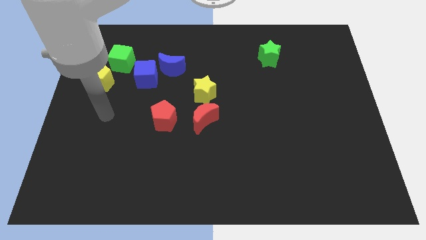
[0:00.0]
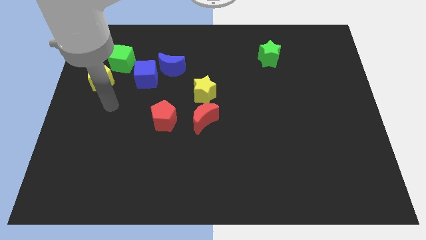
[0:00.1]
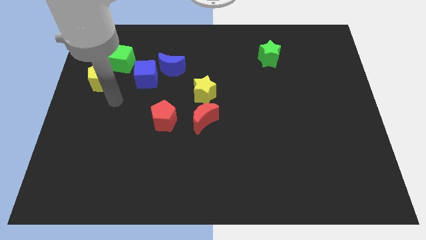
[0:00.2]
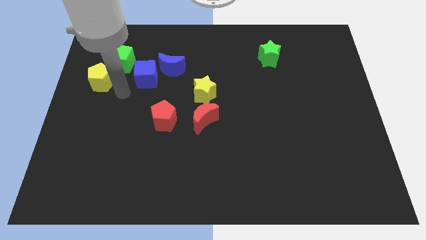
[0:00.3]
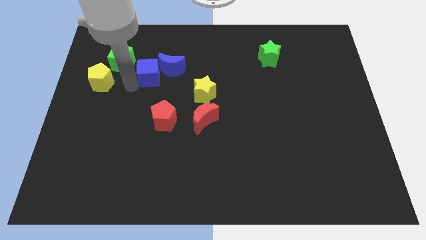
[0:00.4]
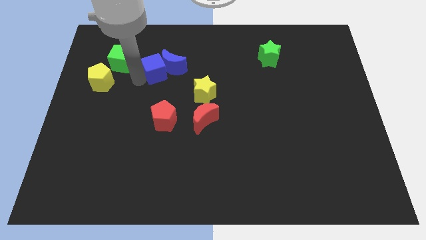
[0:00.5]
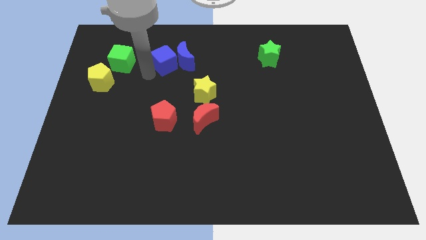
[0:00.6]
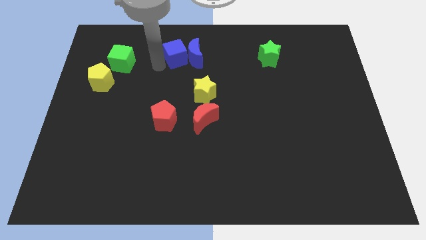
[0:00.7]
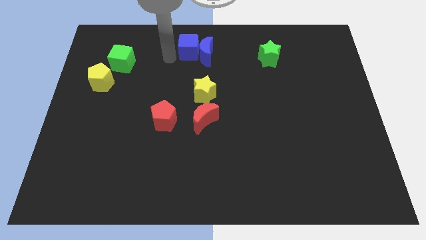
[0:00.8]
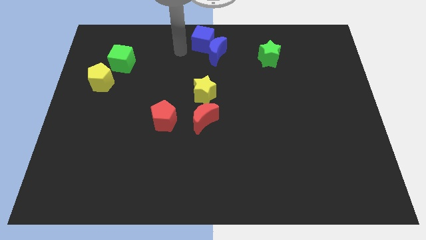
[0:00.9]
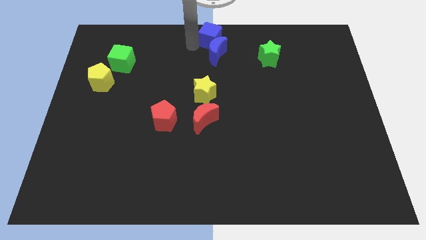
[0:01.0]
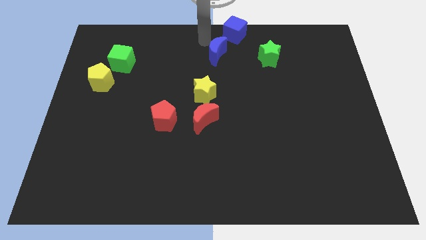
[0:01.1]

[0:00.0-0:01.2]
separate the blue moon from the blue cube

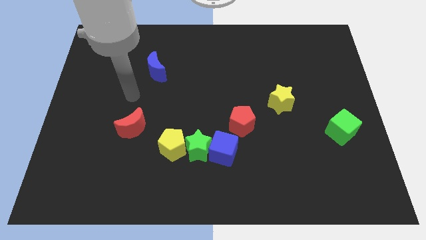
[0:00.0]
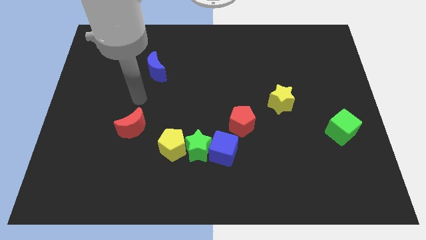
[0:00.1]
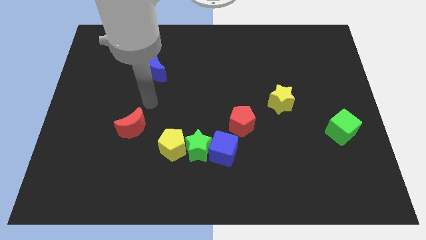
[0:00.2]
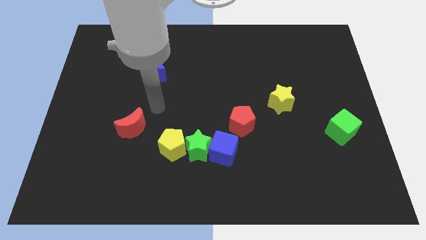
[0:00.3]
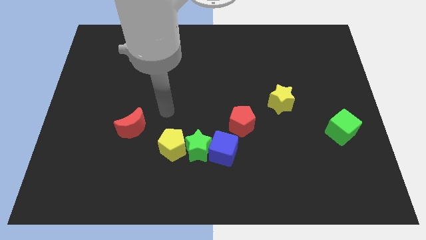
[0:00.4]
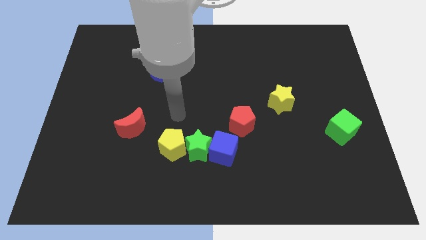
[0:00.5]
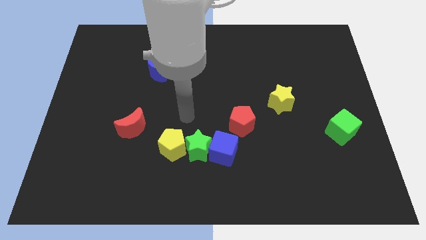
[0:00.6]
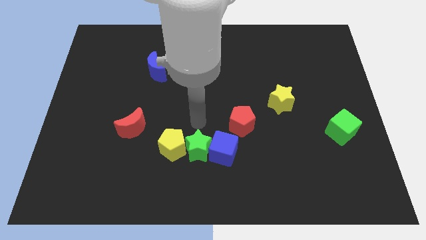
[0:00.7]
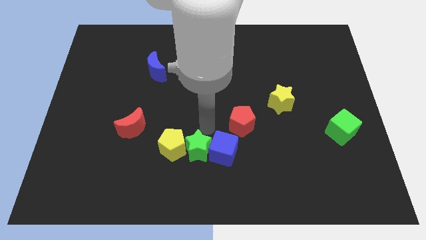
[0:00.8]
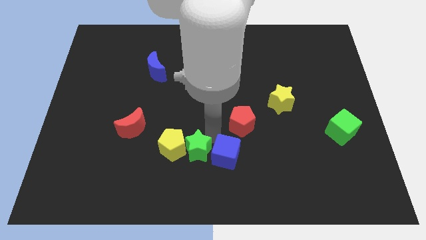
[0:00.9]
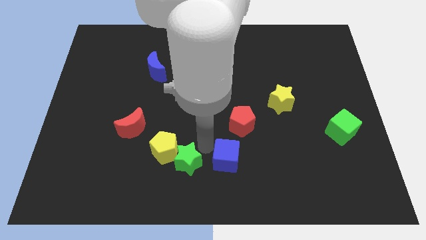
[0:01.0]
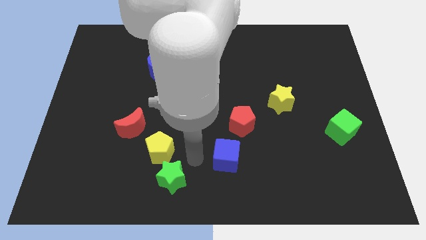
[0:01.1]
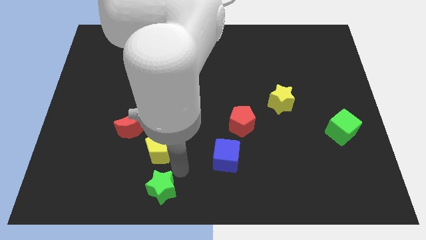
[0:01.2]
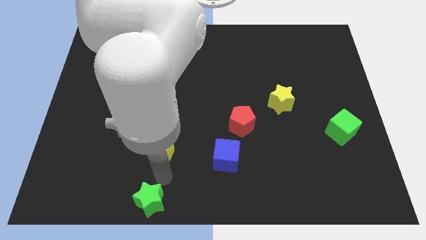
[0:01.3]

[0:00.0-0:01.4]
separate the yellow pentagon from the green star

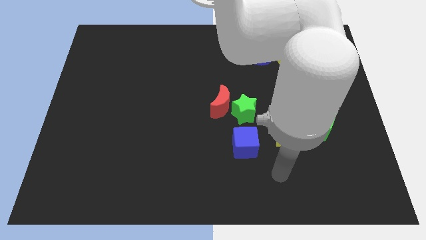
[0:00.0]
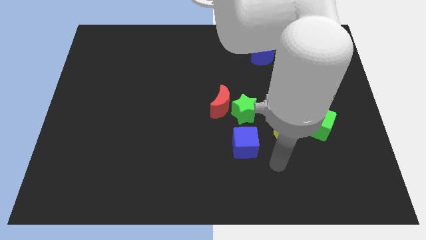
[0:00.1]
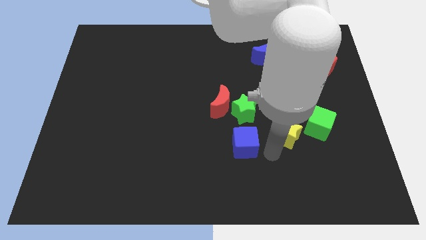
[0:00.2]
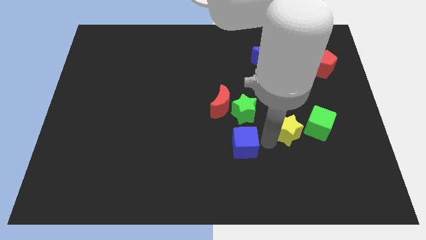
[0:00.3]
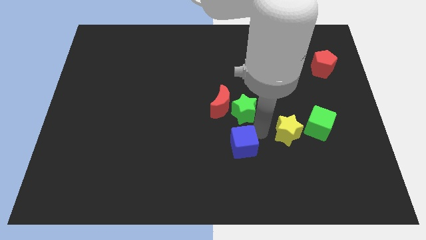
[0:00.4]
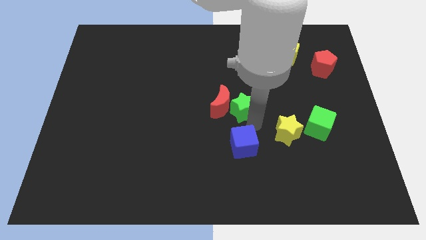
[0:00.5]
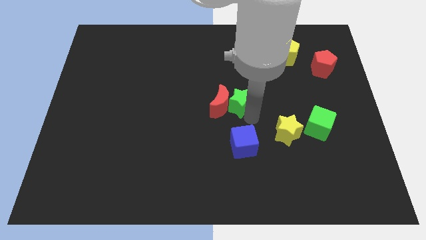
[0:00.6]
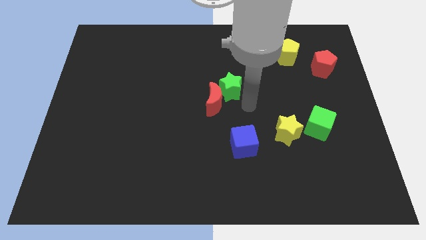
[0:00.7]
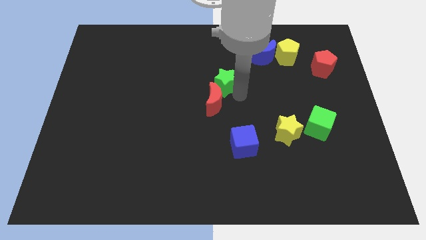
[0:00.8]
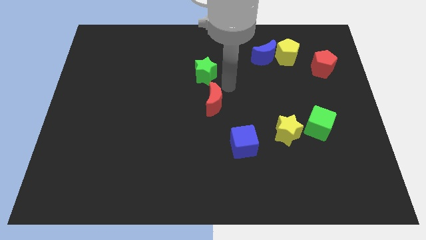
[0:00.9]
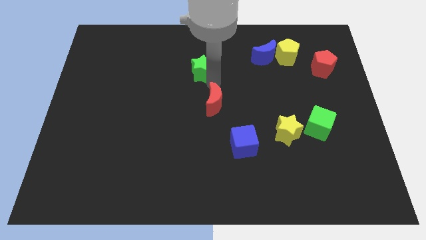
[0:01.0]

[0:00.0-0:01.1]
separate the red moon from the green star

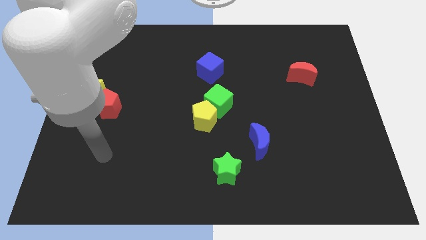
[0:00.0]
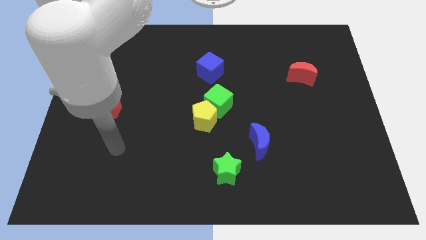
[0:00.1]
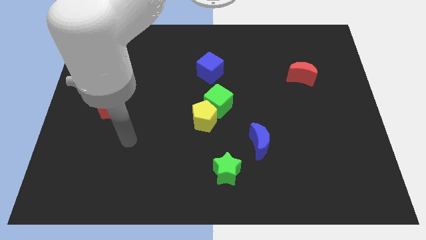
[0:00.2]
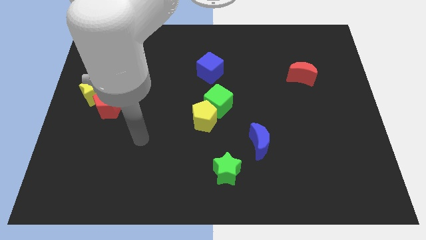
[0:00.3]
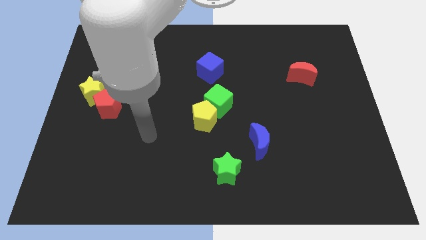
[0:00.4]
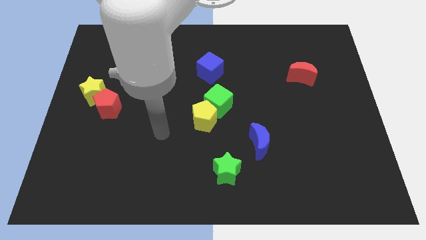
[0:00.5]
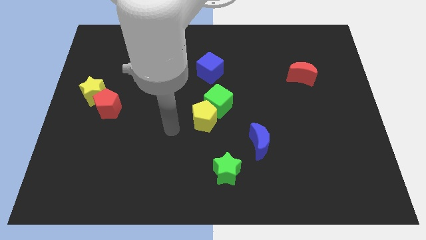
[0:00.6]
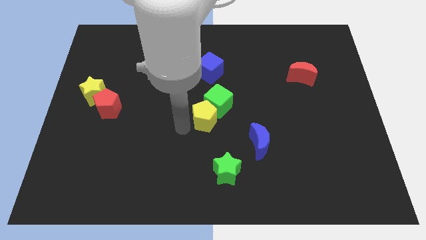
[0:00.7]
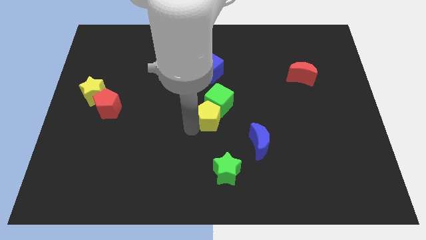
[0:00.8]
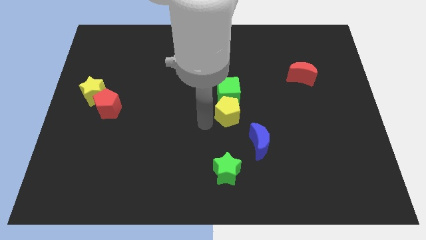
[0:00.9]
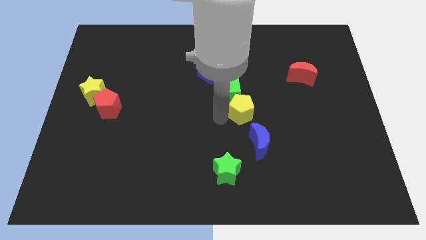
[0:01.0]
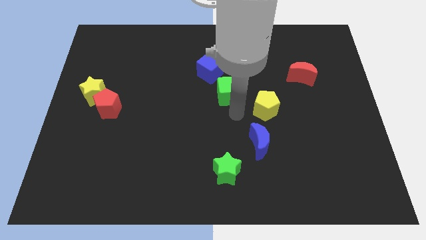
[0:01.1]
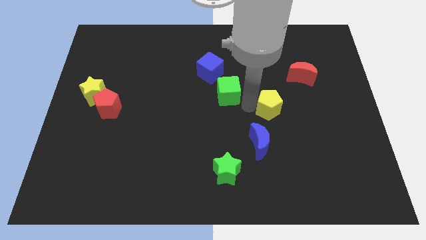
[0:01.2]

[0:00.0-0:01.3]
separate the green cube from the yellow pentagon

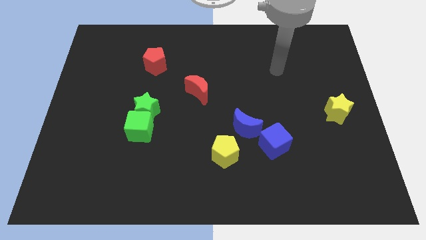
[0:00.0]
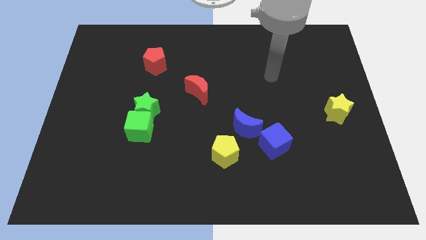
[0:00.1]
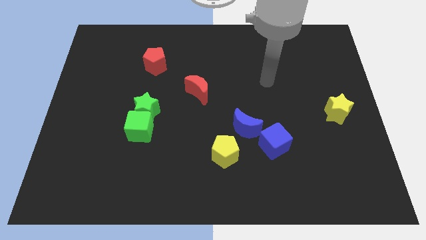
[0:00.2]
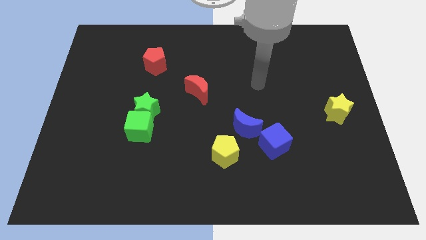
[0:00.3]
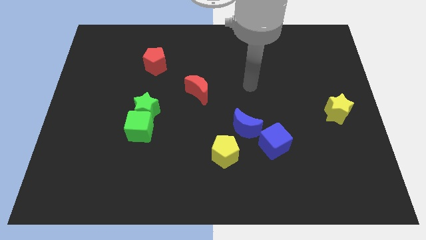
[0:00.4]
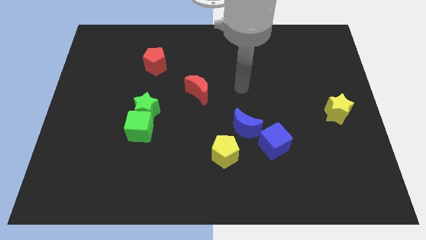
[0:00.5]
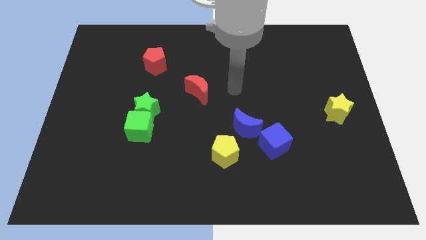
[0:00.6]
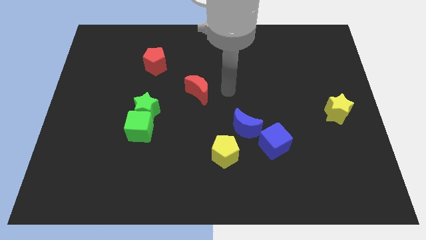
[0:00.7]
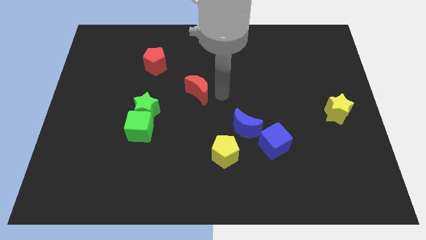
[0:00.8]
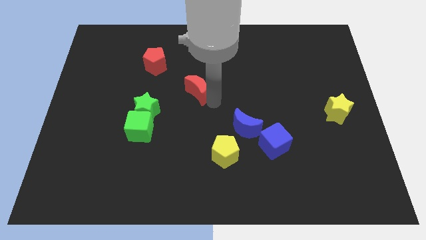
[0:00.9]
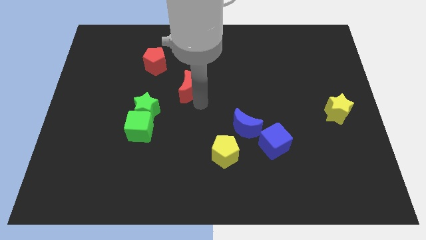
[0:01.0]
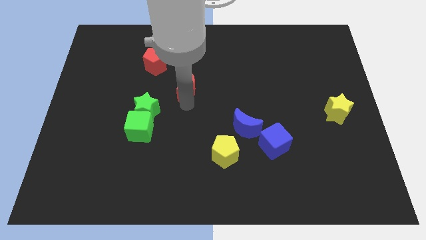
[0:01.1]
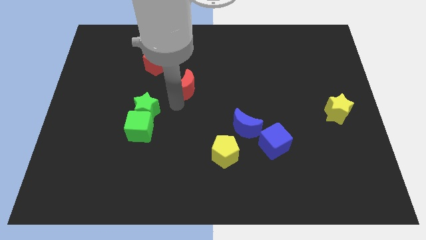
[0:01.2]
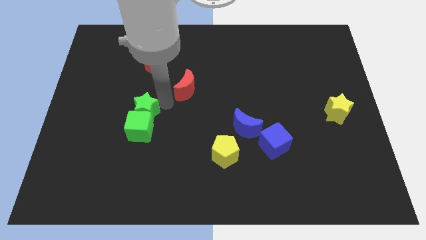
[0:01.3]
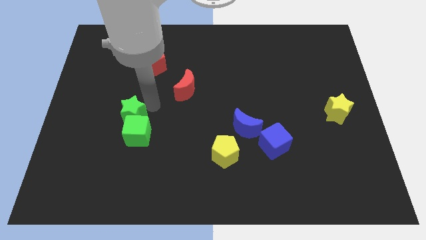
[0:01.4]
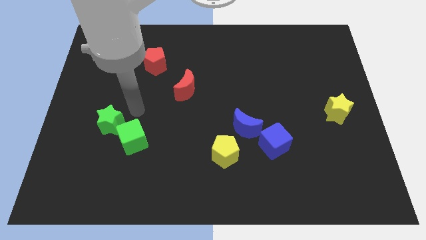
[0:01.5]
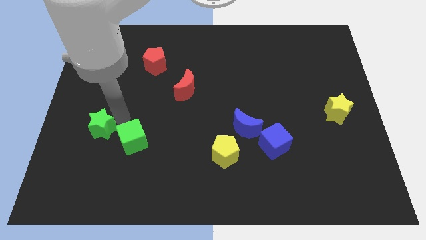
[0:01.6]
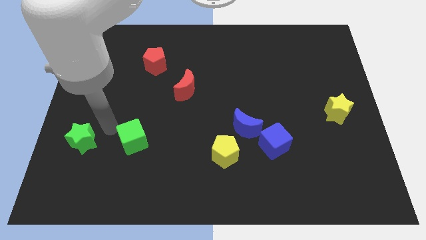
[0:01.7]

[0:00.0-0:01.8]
separate the green cube from the green star

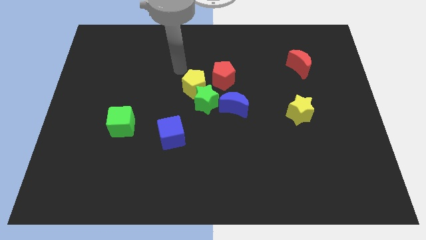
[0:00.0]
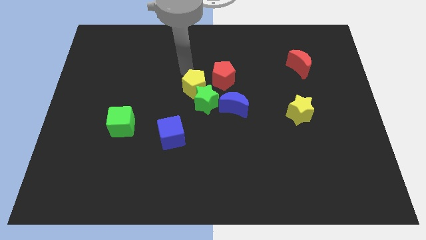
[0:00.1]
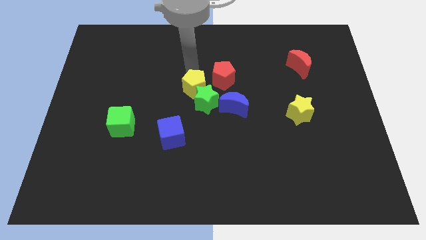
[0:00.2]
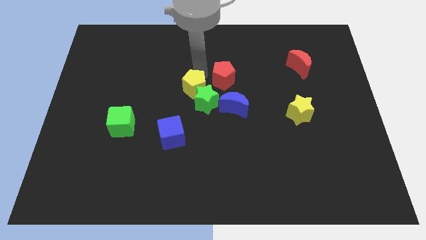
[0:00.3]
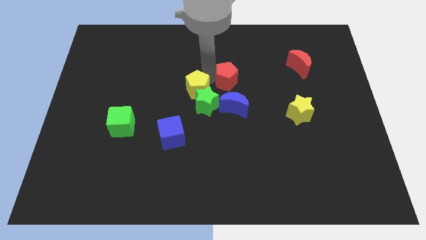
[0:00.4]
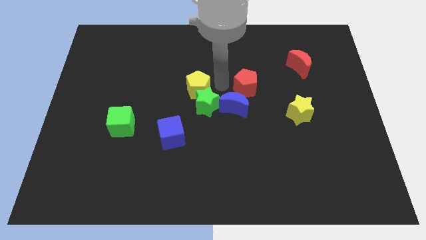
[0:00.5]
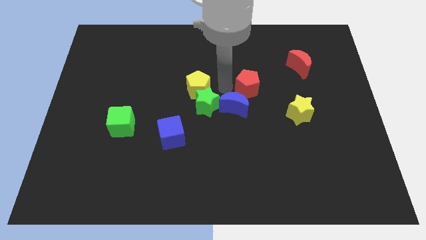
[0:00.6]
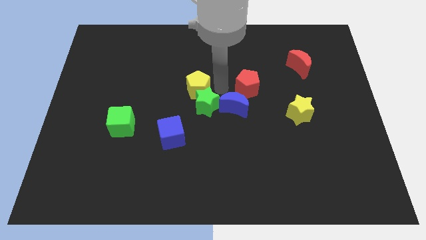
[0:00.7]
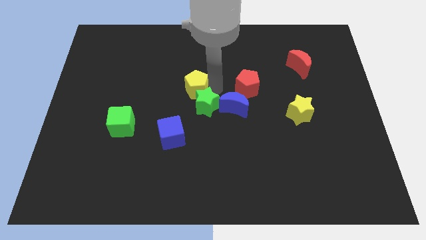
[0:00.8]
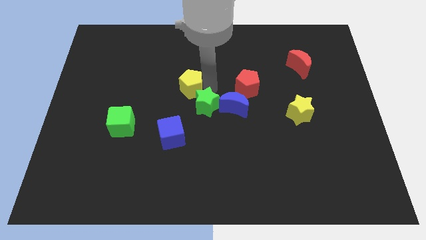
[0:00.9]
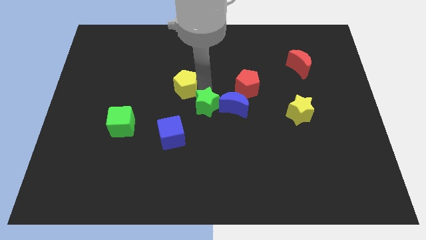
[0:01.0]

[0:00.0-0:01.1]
separate the yellow pentagon from the green star and red pentagon

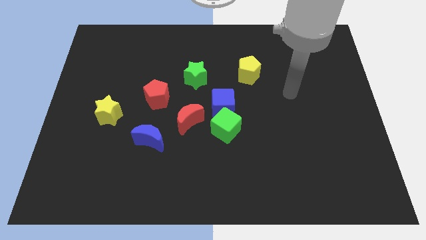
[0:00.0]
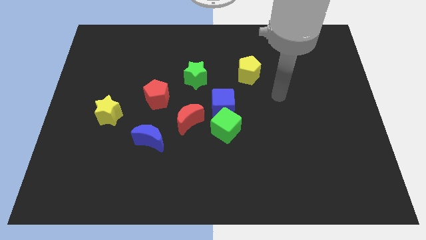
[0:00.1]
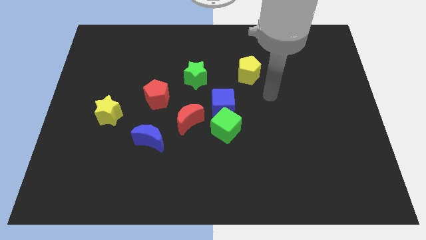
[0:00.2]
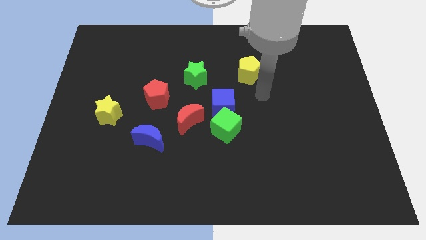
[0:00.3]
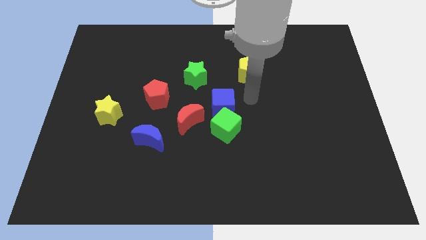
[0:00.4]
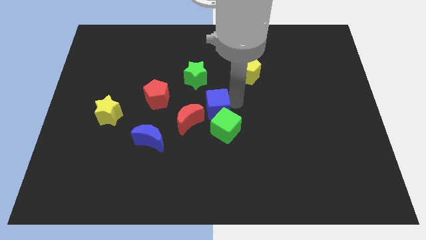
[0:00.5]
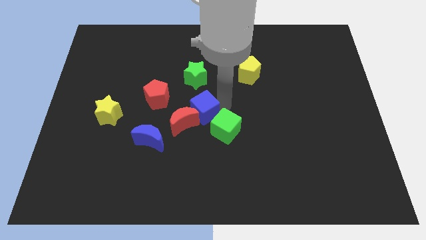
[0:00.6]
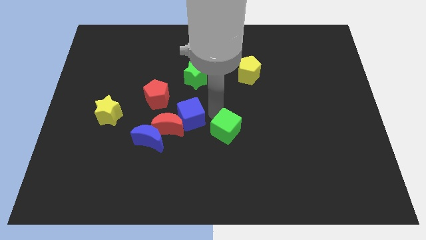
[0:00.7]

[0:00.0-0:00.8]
pull the green cube apart from the blue cube and red moon

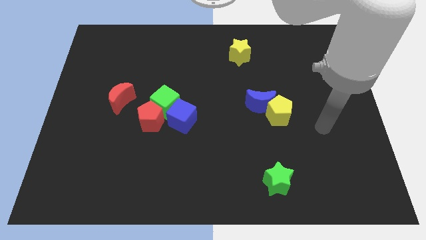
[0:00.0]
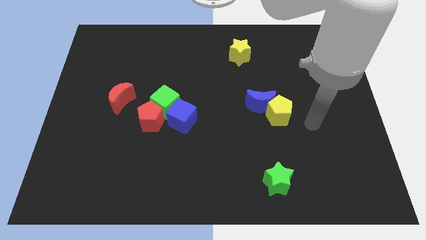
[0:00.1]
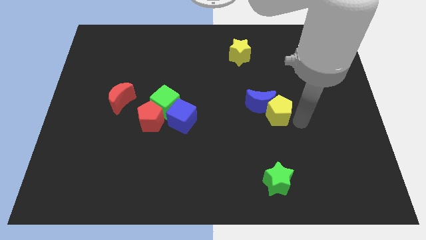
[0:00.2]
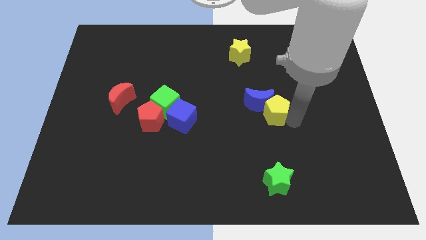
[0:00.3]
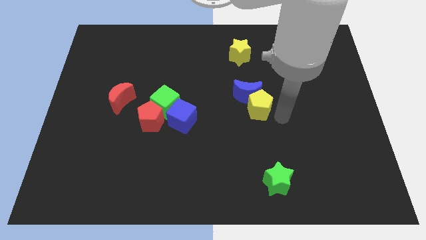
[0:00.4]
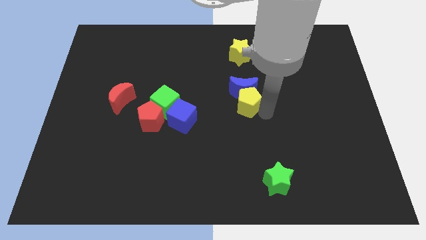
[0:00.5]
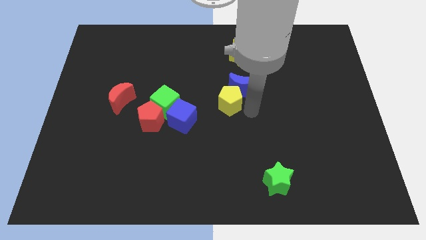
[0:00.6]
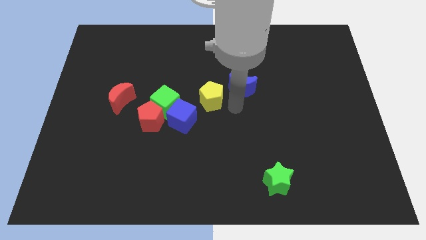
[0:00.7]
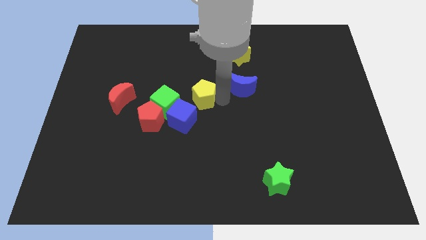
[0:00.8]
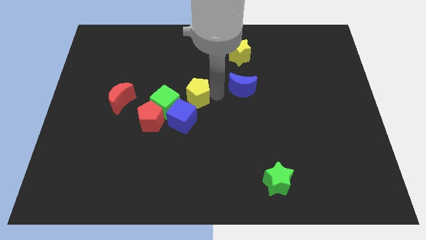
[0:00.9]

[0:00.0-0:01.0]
separate the blue moon from the yellow pentagon
